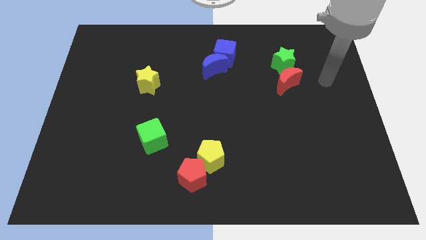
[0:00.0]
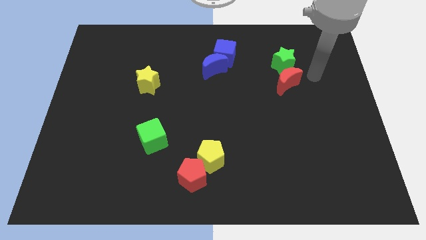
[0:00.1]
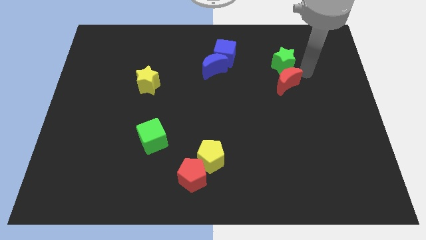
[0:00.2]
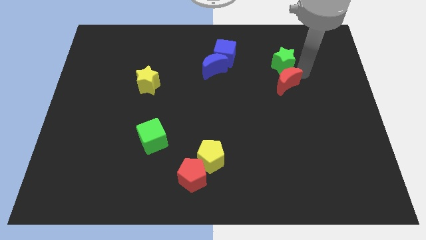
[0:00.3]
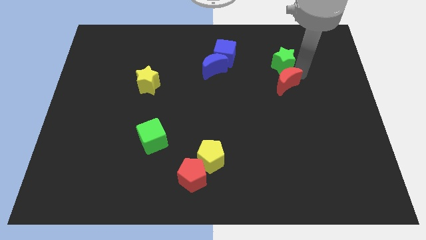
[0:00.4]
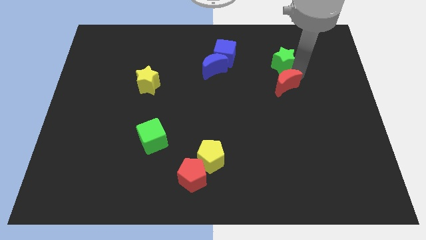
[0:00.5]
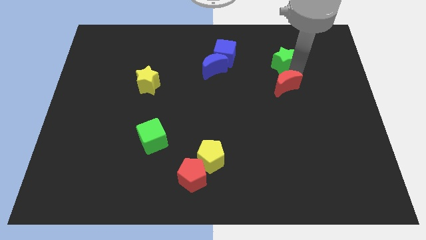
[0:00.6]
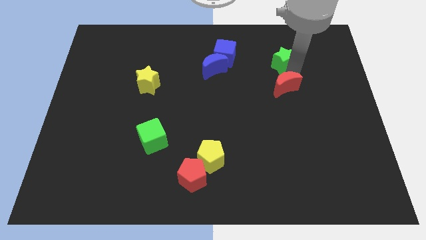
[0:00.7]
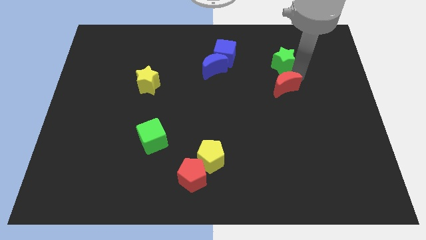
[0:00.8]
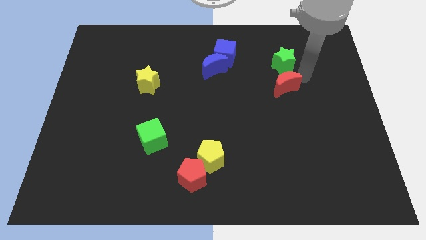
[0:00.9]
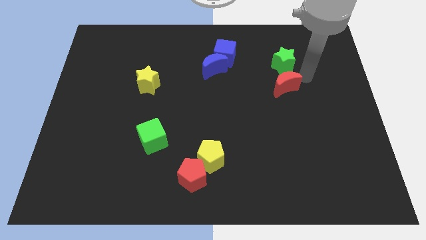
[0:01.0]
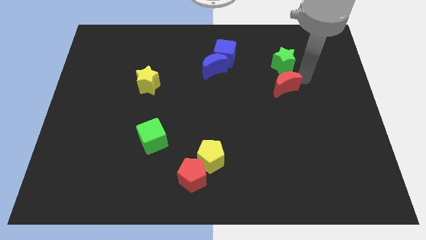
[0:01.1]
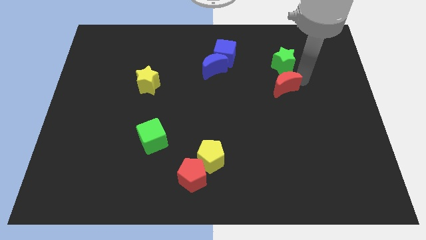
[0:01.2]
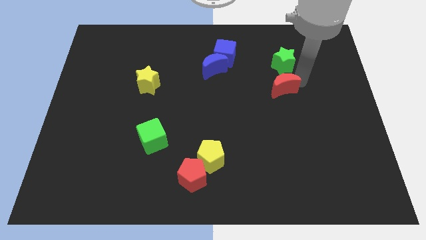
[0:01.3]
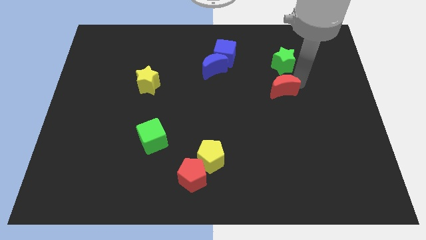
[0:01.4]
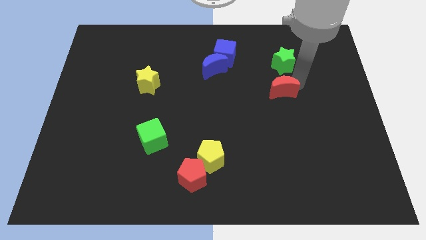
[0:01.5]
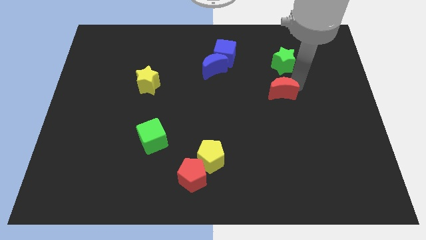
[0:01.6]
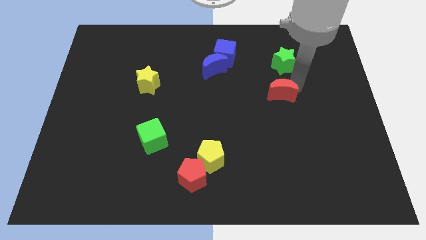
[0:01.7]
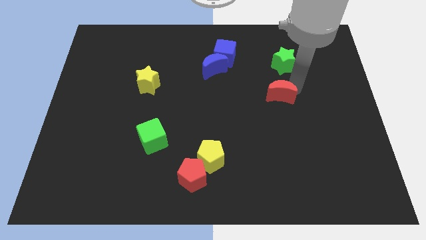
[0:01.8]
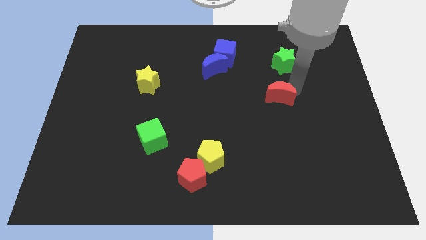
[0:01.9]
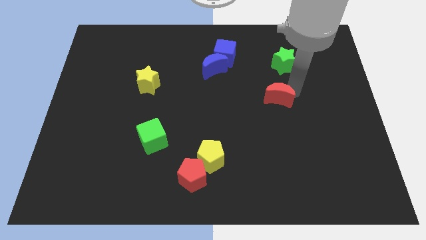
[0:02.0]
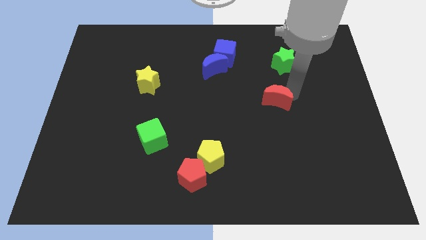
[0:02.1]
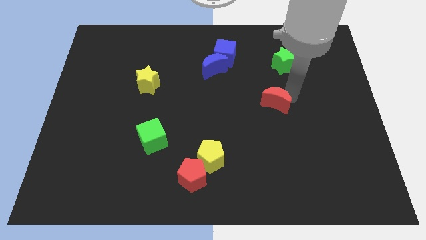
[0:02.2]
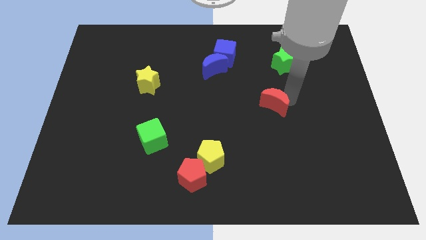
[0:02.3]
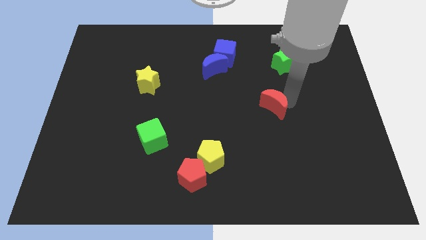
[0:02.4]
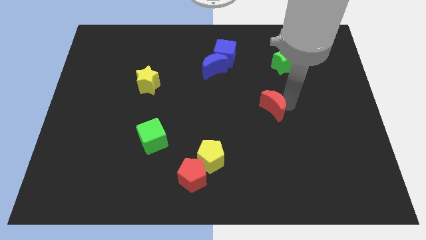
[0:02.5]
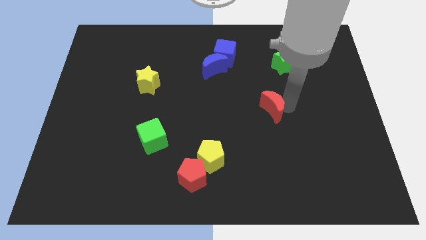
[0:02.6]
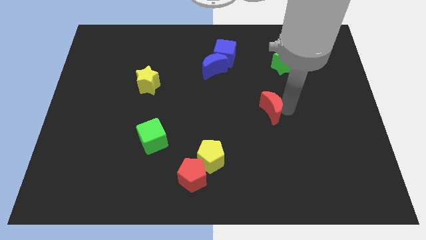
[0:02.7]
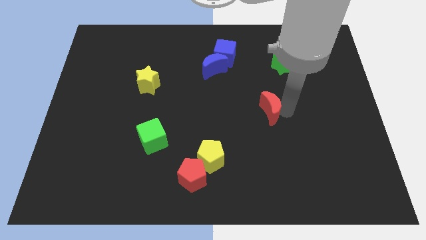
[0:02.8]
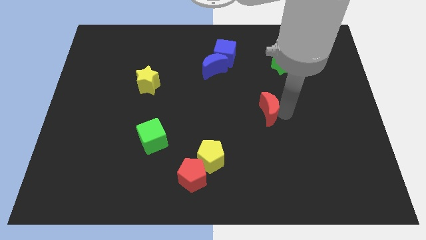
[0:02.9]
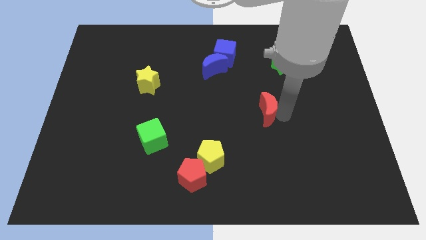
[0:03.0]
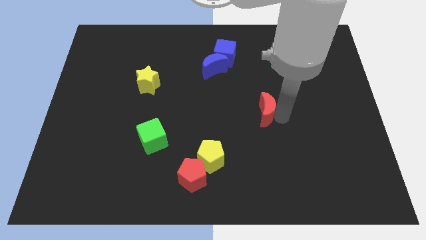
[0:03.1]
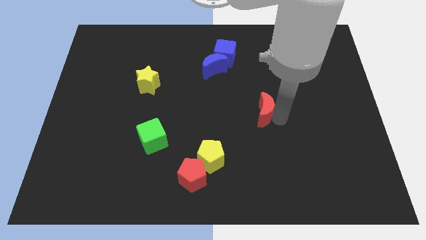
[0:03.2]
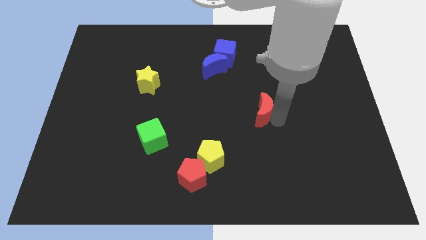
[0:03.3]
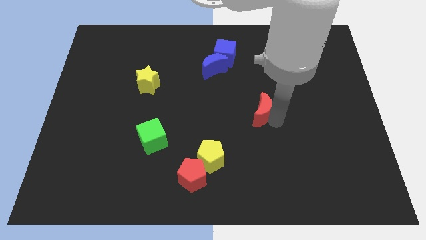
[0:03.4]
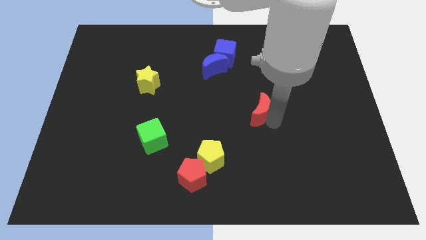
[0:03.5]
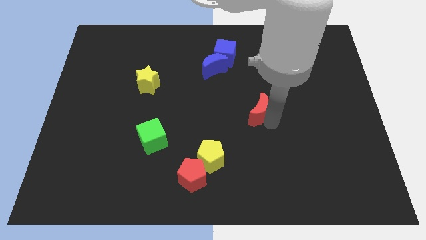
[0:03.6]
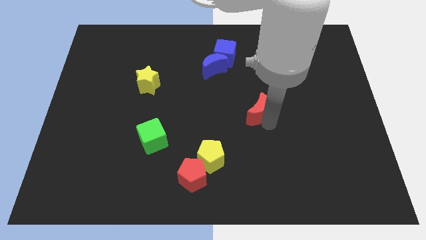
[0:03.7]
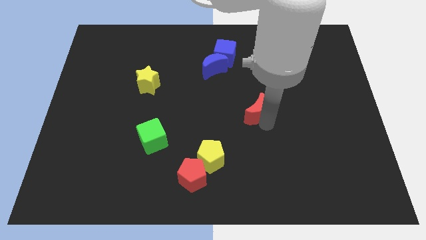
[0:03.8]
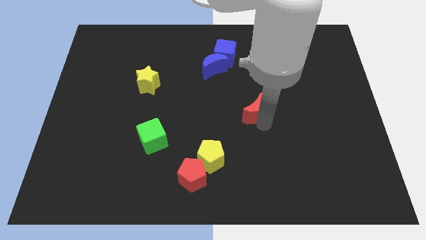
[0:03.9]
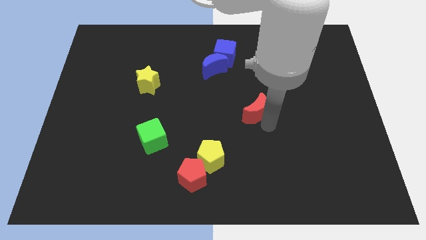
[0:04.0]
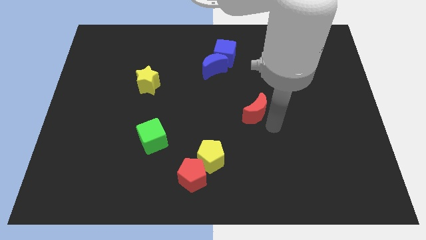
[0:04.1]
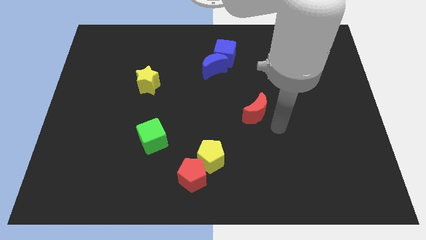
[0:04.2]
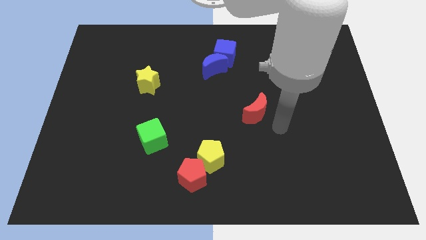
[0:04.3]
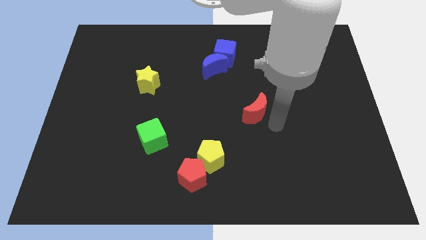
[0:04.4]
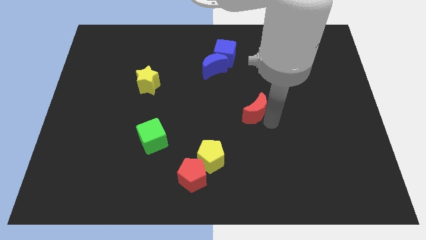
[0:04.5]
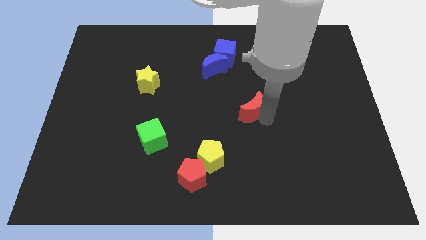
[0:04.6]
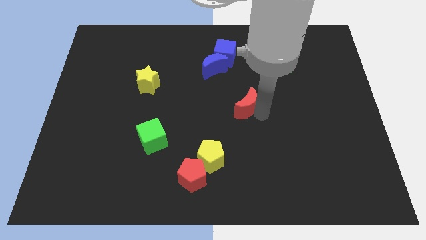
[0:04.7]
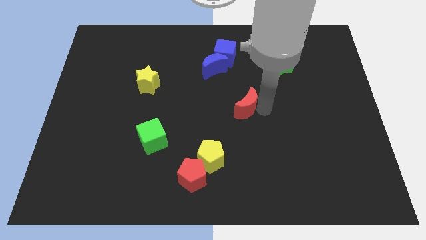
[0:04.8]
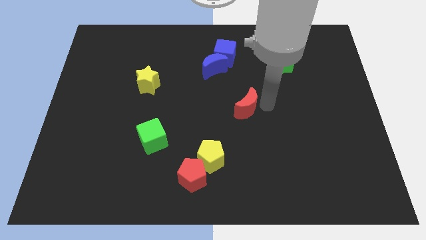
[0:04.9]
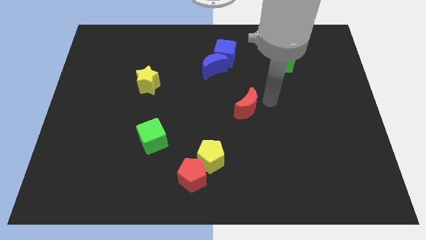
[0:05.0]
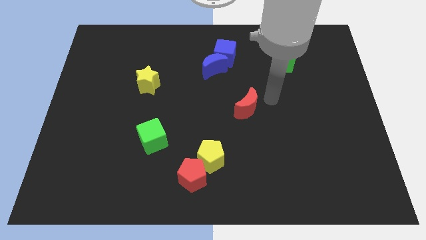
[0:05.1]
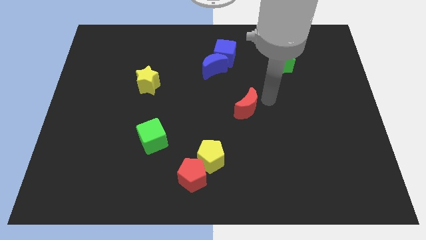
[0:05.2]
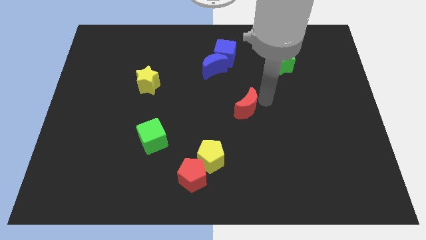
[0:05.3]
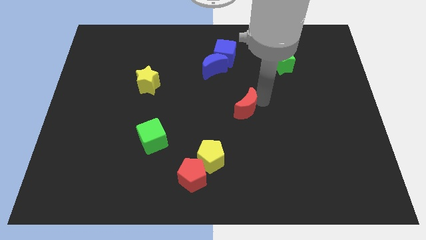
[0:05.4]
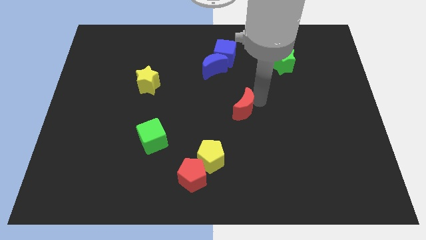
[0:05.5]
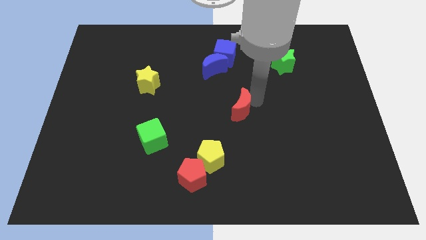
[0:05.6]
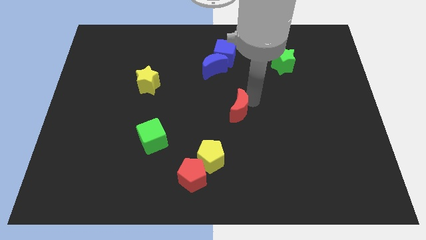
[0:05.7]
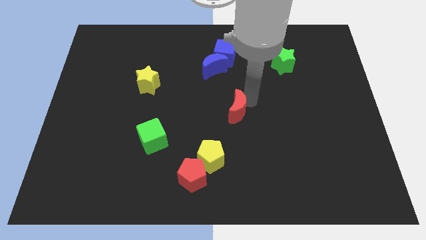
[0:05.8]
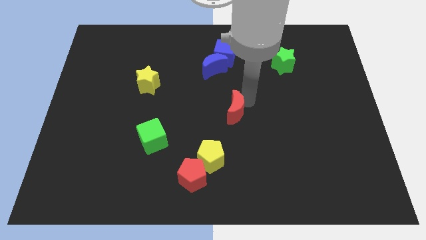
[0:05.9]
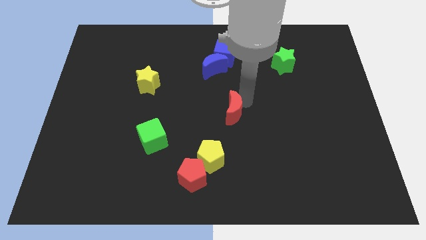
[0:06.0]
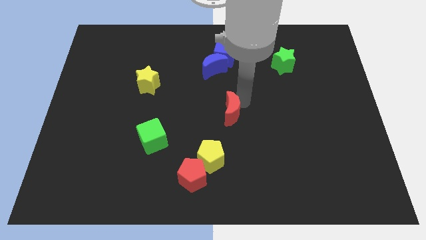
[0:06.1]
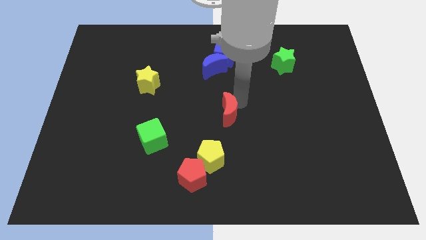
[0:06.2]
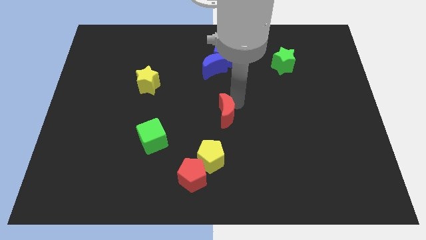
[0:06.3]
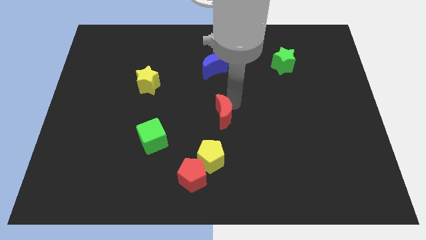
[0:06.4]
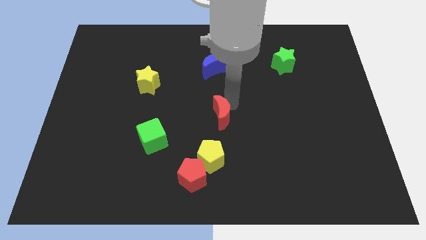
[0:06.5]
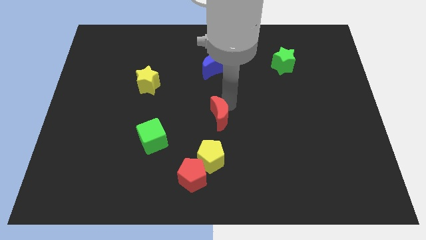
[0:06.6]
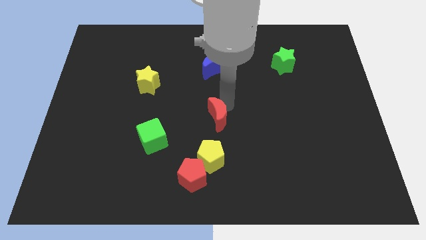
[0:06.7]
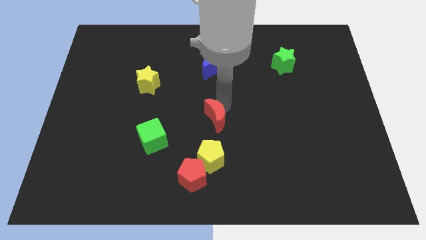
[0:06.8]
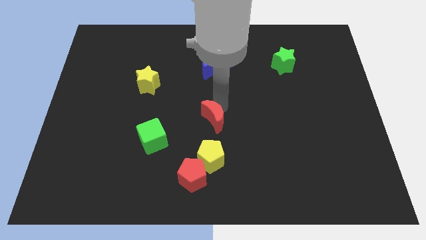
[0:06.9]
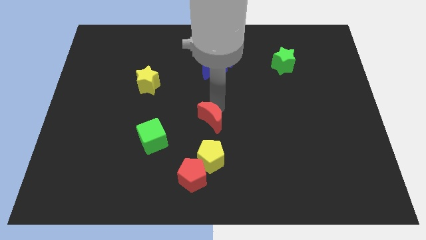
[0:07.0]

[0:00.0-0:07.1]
push the red moon above the red pentagon

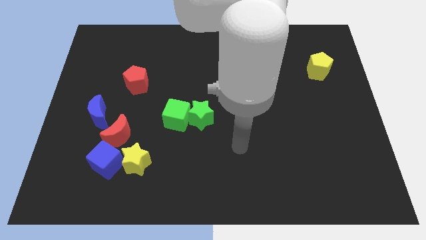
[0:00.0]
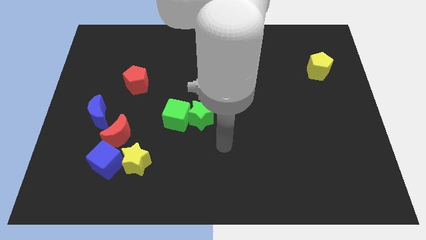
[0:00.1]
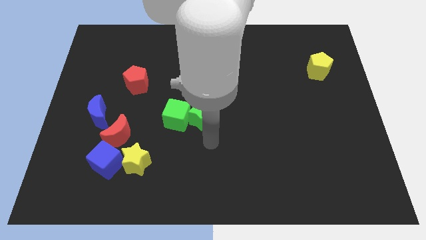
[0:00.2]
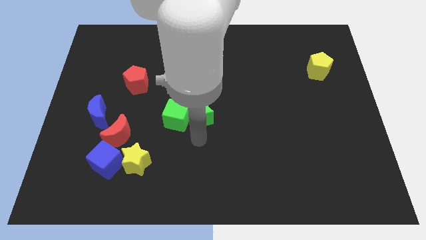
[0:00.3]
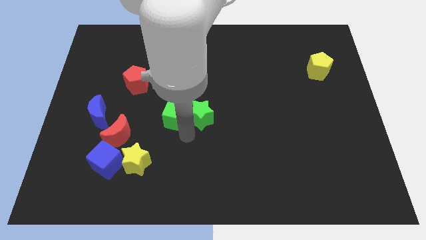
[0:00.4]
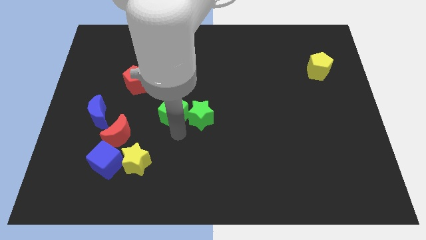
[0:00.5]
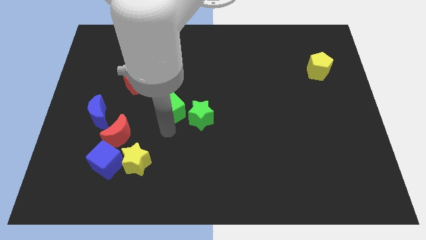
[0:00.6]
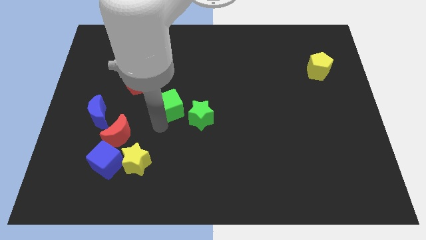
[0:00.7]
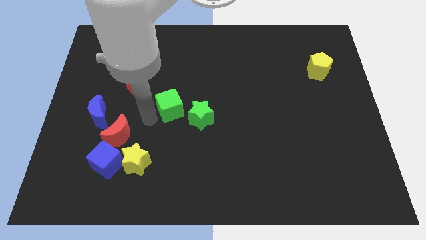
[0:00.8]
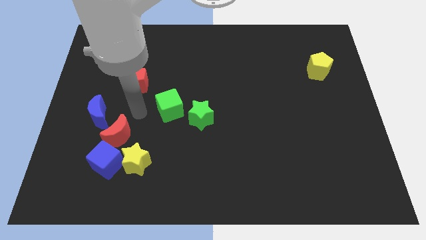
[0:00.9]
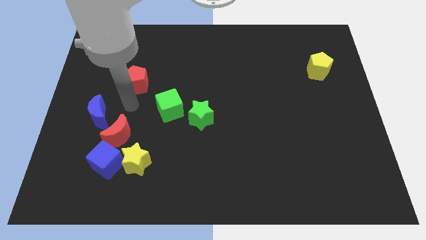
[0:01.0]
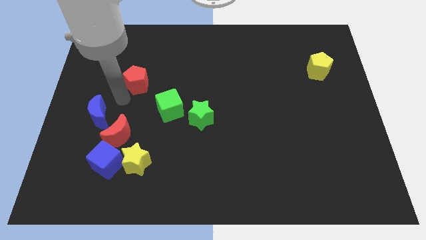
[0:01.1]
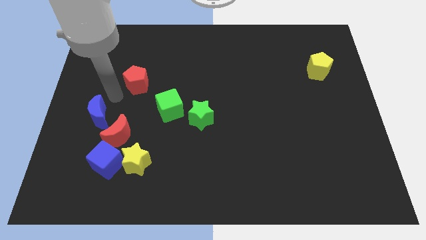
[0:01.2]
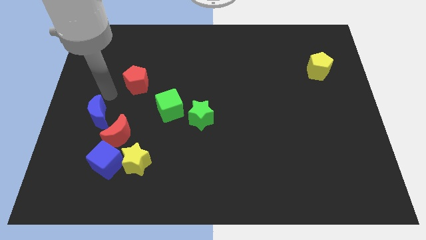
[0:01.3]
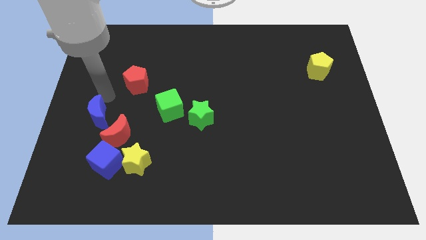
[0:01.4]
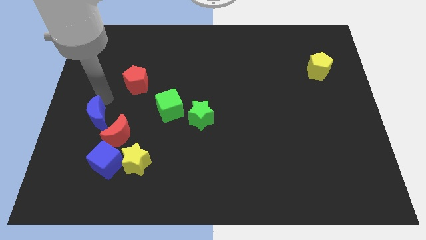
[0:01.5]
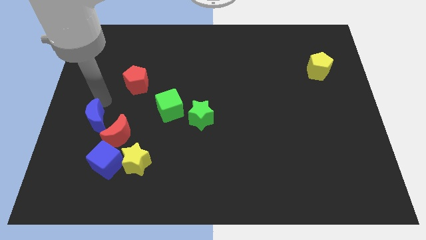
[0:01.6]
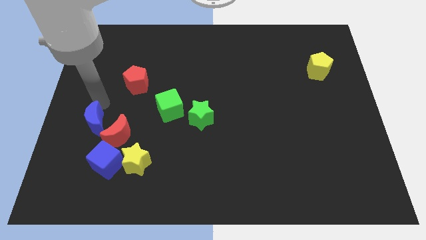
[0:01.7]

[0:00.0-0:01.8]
move the blue moon to the top left side of the blue cube
